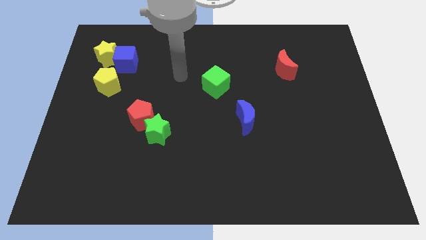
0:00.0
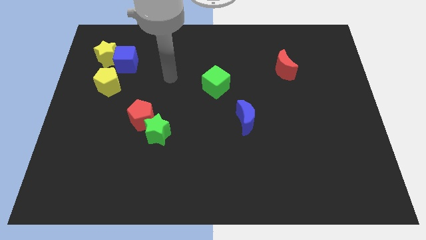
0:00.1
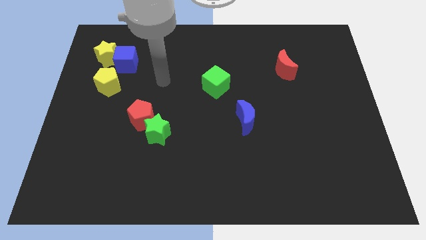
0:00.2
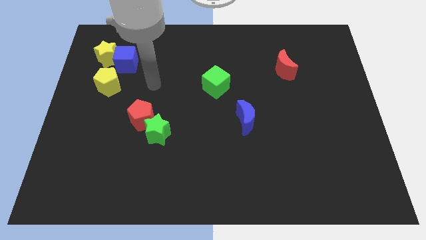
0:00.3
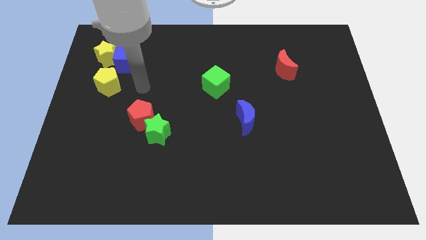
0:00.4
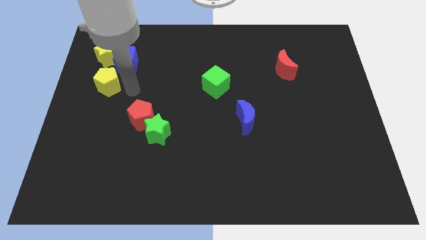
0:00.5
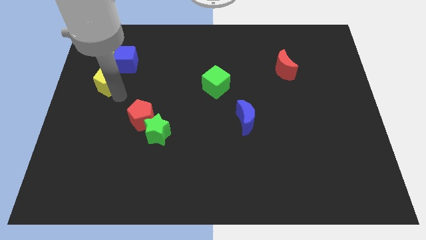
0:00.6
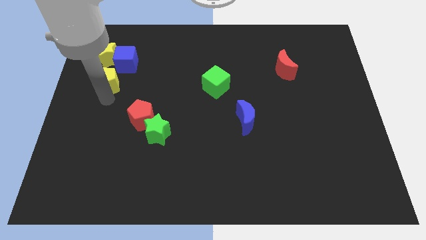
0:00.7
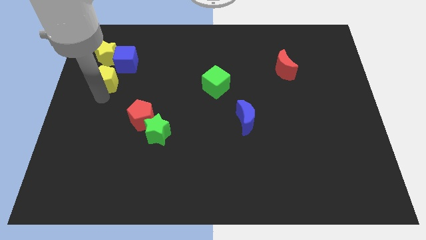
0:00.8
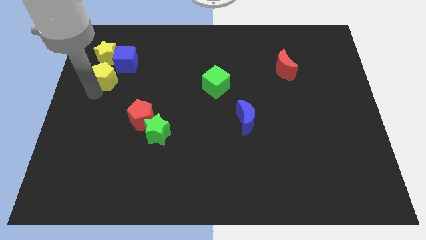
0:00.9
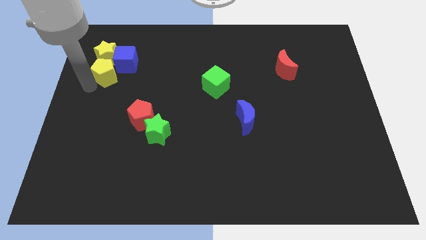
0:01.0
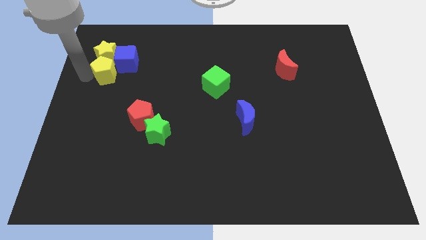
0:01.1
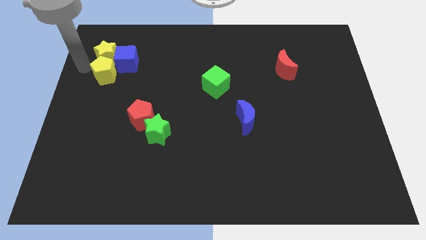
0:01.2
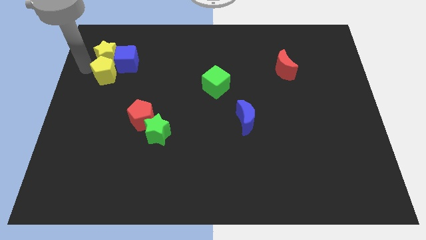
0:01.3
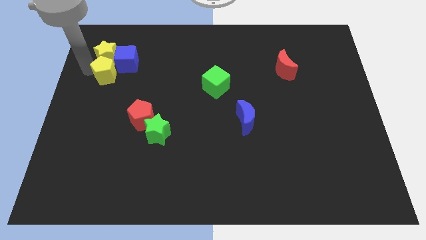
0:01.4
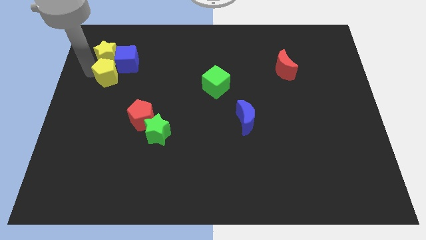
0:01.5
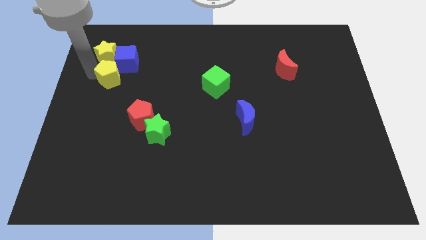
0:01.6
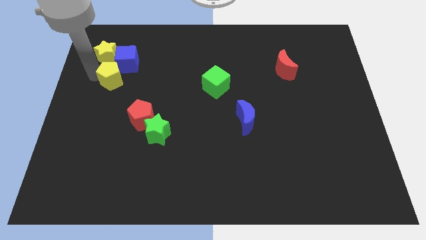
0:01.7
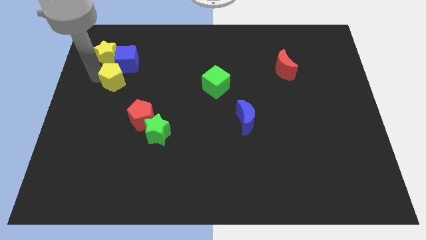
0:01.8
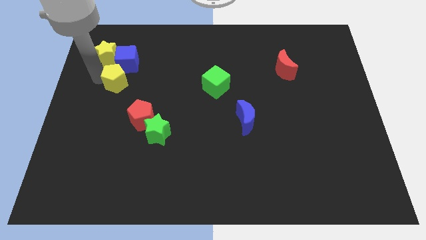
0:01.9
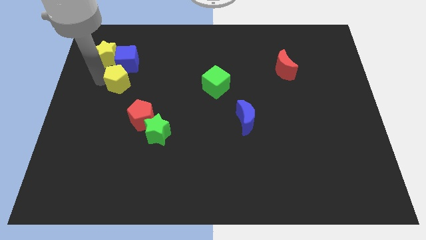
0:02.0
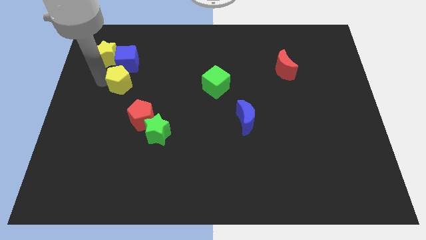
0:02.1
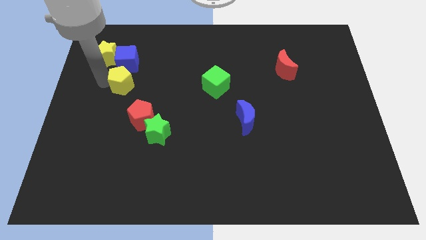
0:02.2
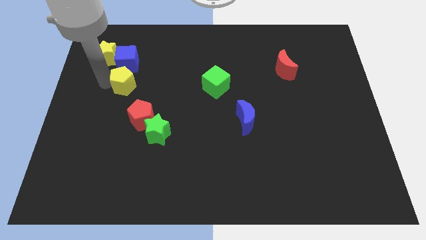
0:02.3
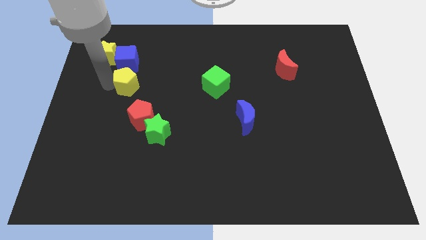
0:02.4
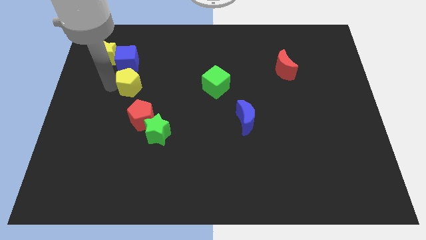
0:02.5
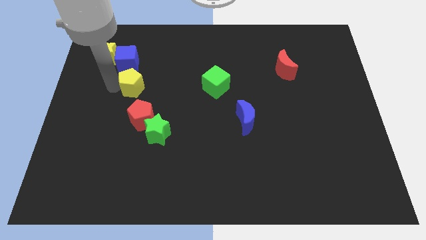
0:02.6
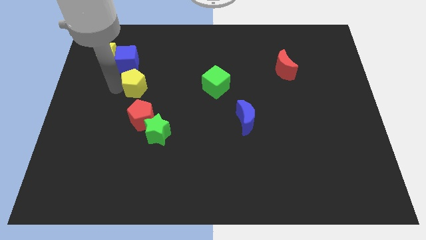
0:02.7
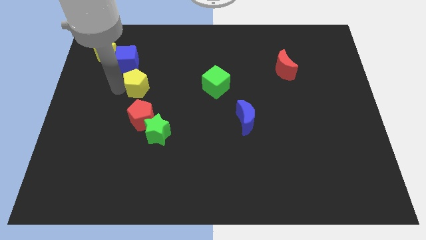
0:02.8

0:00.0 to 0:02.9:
move the yellow pentagon to the right a little bit

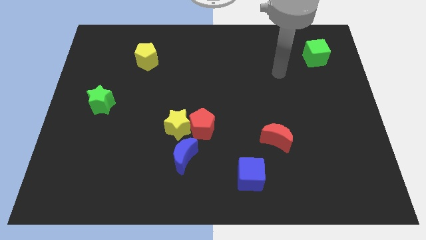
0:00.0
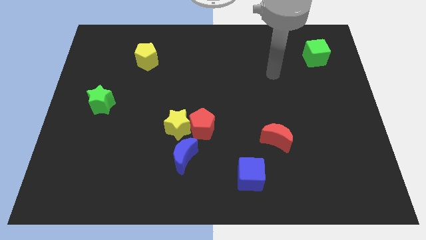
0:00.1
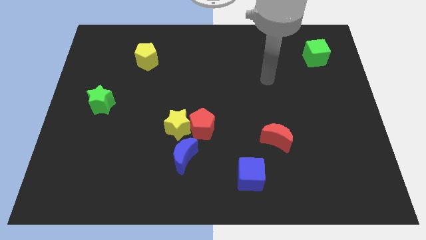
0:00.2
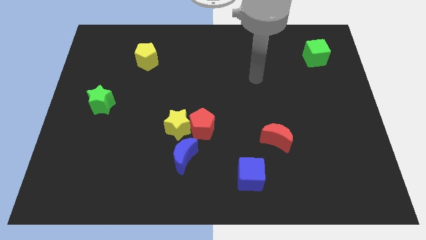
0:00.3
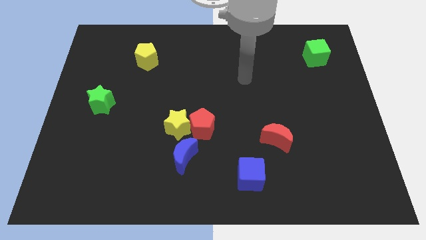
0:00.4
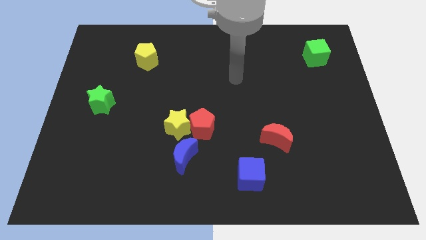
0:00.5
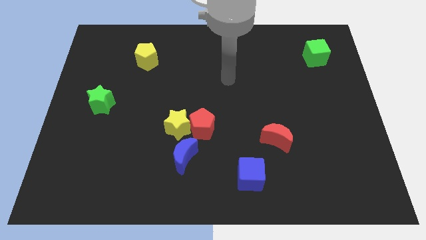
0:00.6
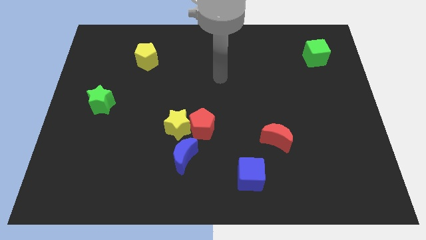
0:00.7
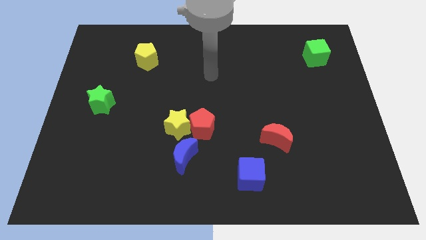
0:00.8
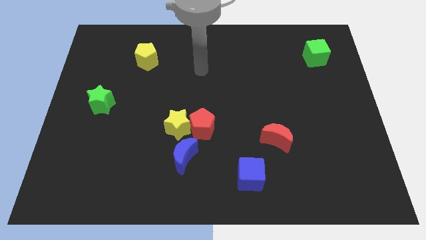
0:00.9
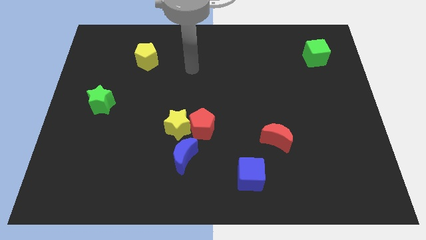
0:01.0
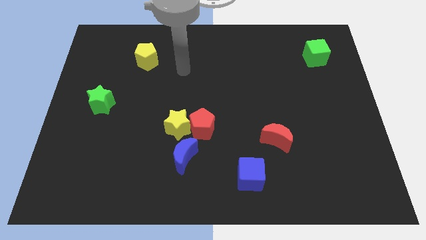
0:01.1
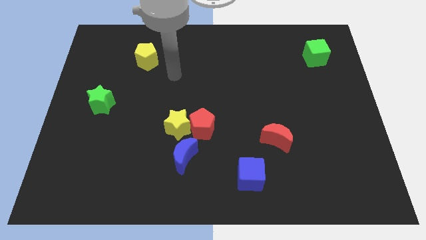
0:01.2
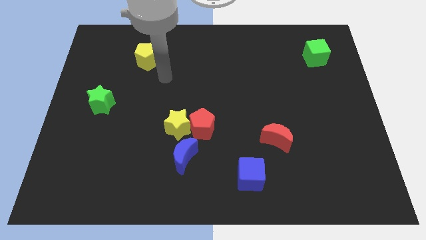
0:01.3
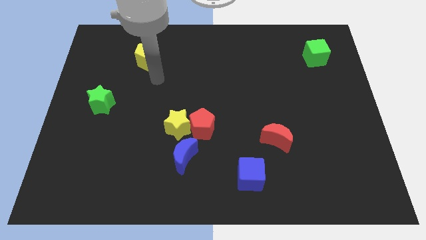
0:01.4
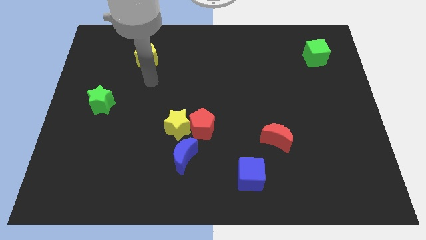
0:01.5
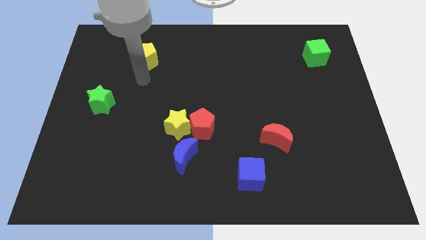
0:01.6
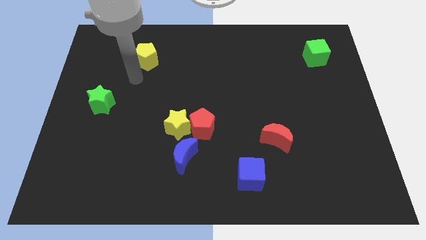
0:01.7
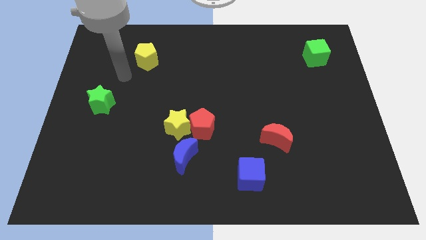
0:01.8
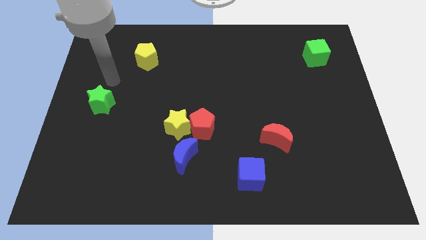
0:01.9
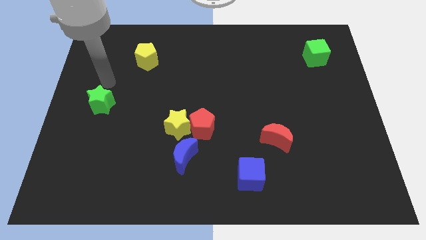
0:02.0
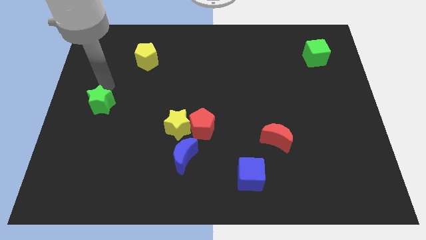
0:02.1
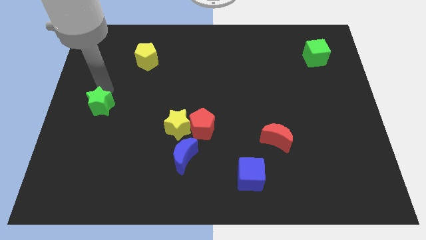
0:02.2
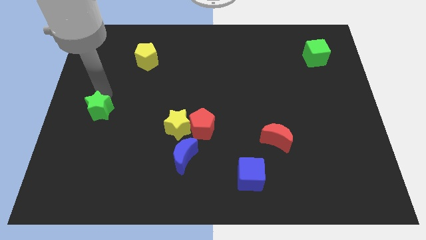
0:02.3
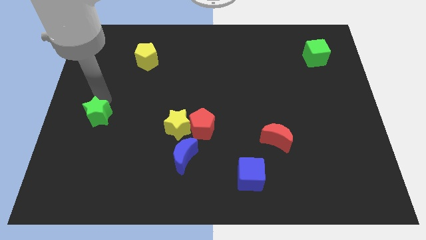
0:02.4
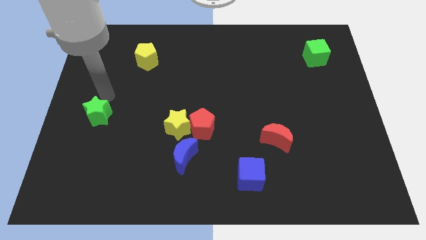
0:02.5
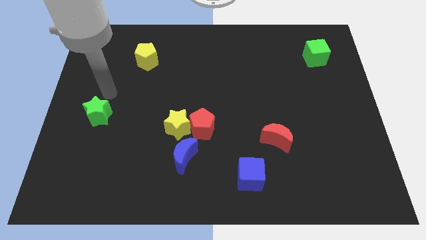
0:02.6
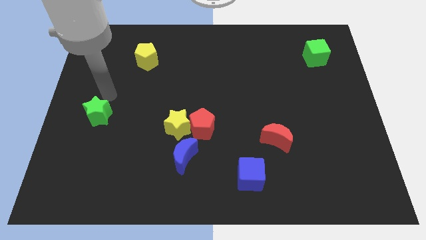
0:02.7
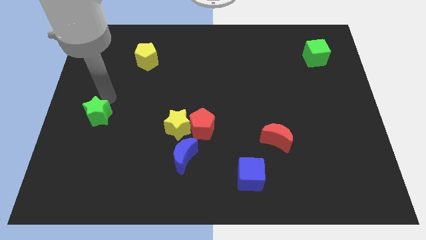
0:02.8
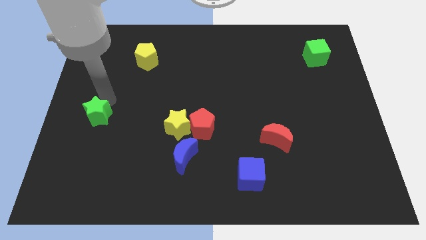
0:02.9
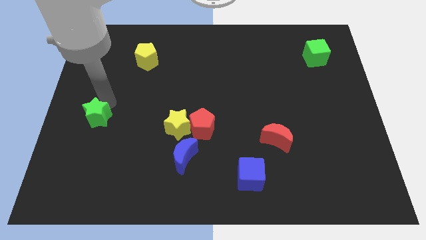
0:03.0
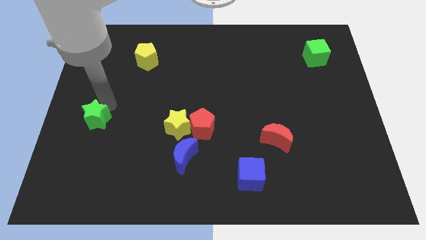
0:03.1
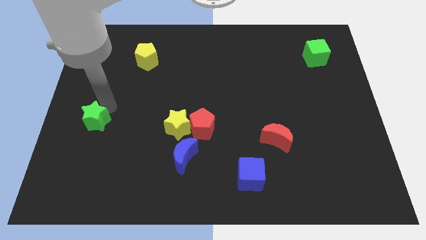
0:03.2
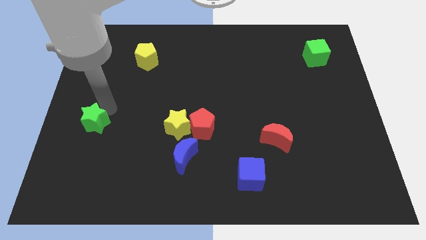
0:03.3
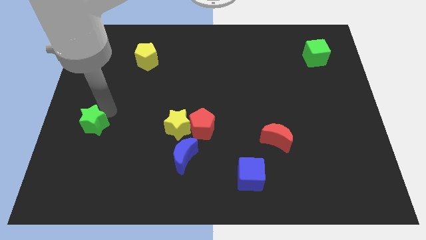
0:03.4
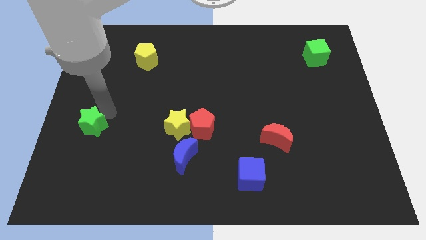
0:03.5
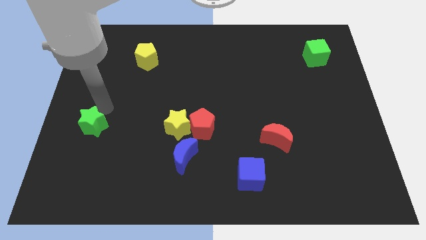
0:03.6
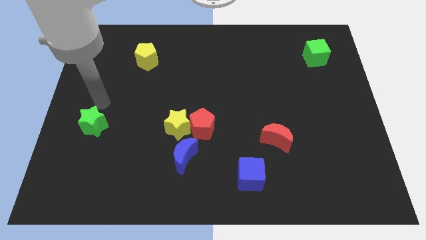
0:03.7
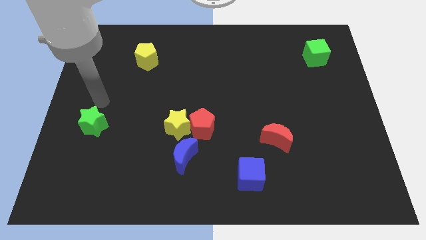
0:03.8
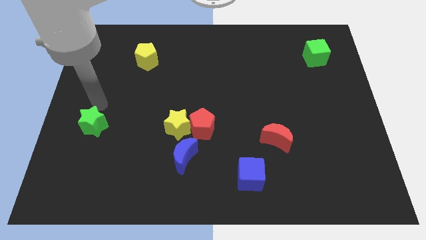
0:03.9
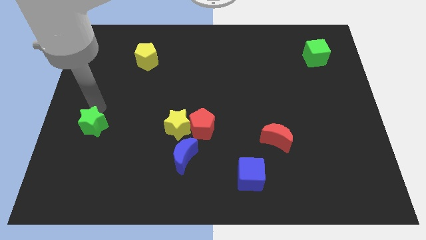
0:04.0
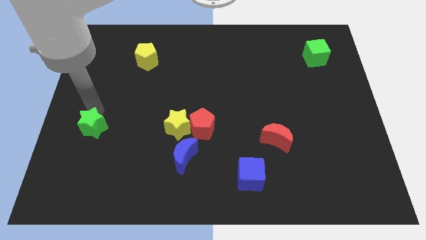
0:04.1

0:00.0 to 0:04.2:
slide the green star down somewhat

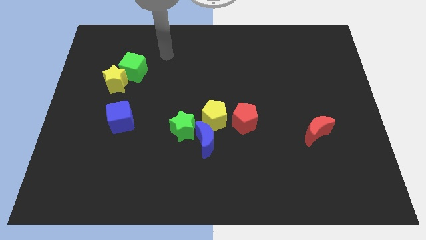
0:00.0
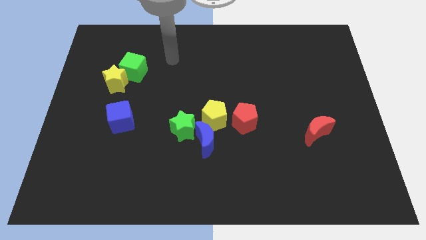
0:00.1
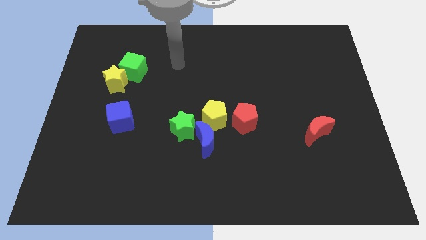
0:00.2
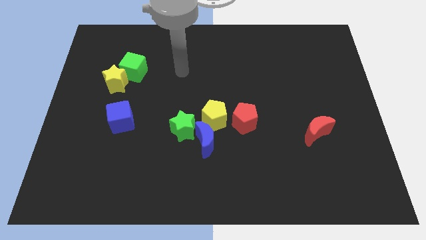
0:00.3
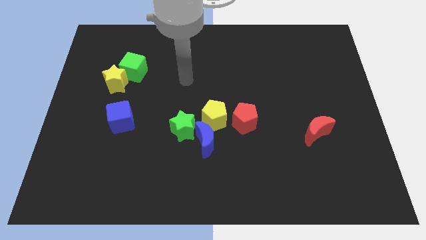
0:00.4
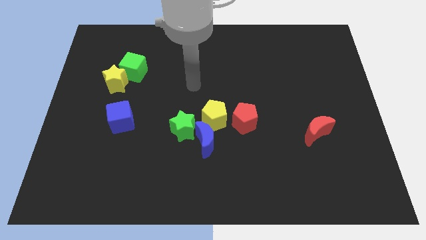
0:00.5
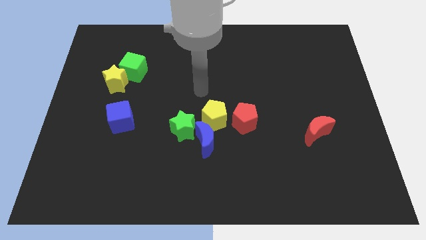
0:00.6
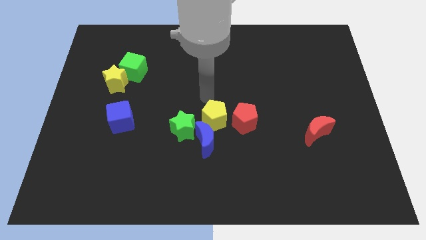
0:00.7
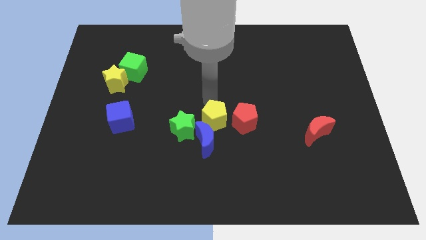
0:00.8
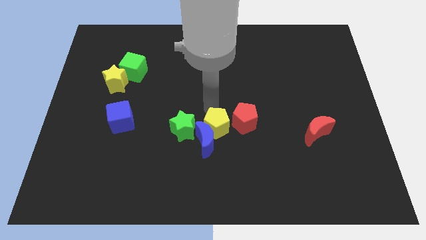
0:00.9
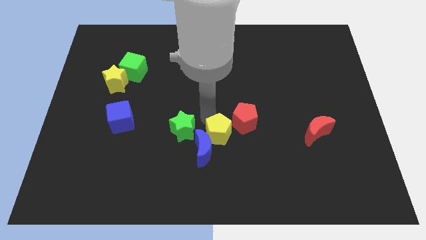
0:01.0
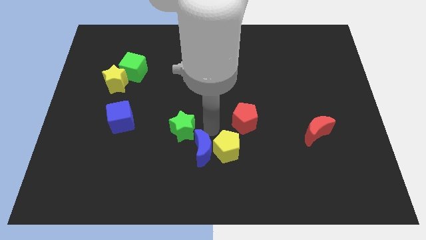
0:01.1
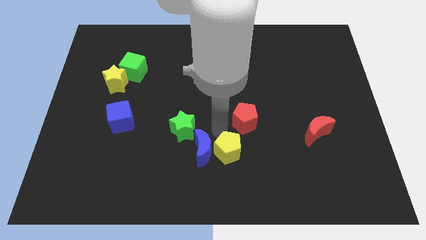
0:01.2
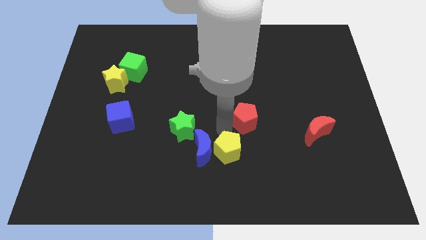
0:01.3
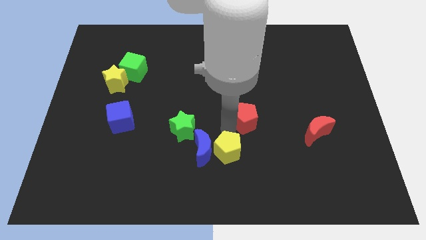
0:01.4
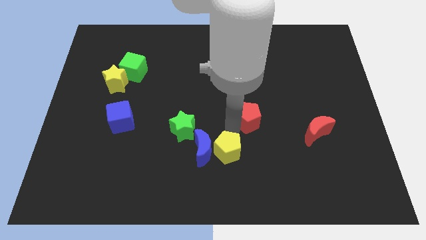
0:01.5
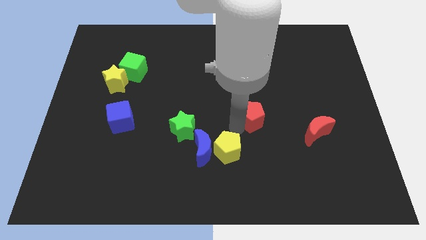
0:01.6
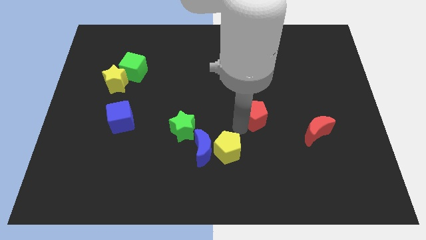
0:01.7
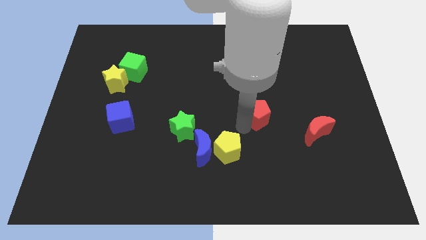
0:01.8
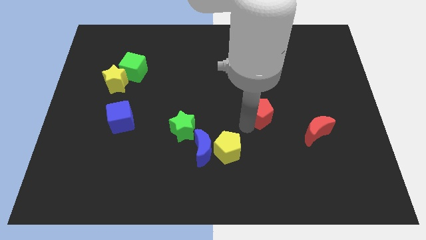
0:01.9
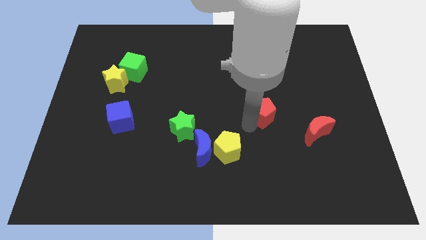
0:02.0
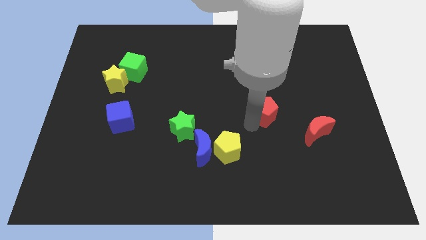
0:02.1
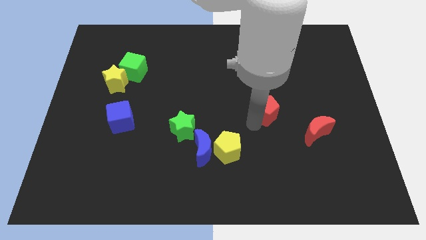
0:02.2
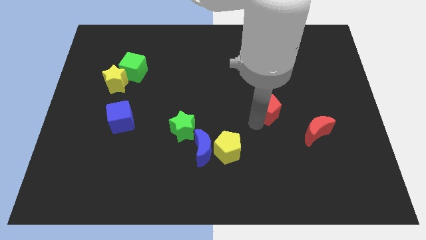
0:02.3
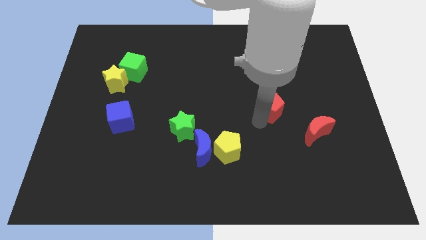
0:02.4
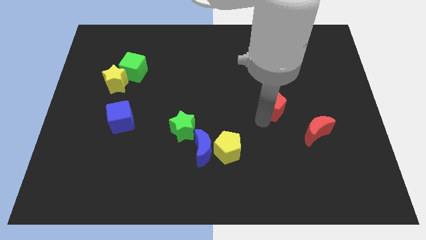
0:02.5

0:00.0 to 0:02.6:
push the red pentagon somewhat upwards and then right
